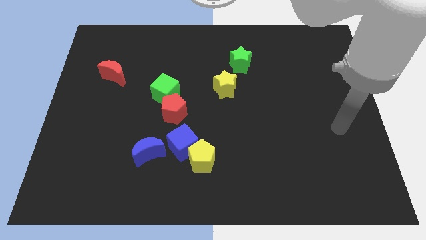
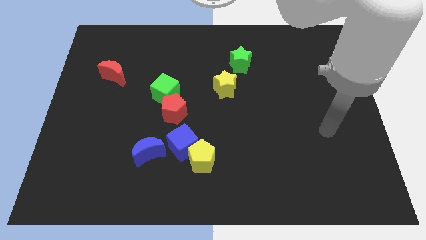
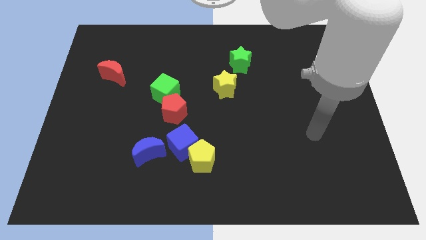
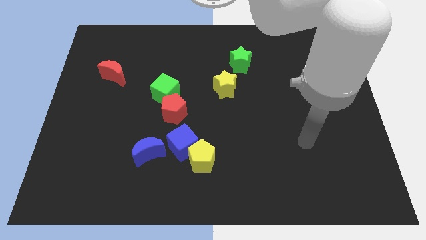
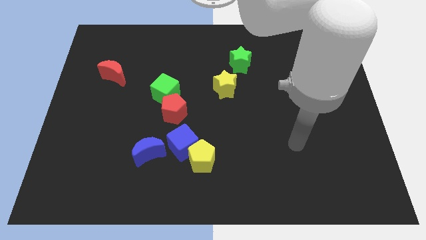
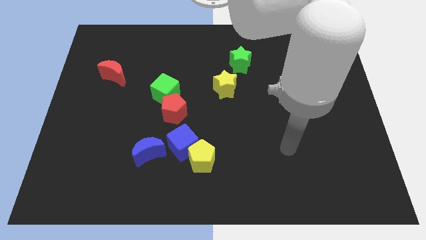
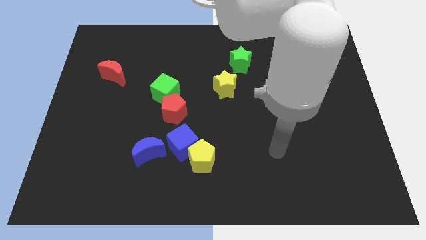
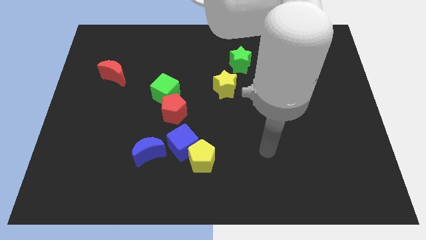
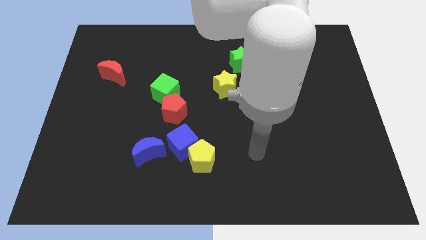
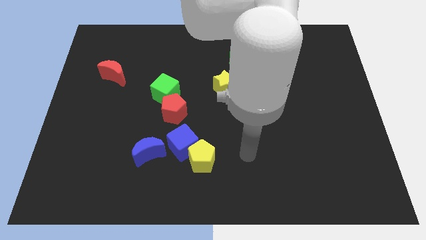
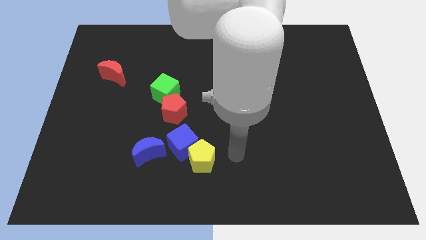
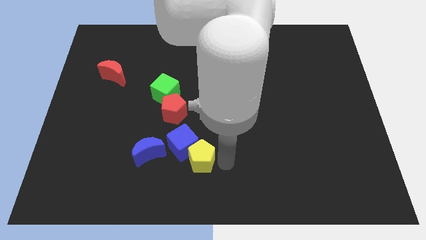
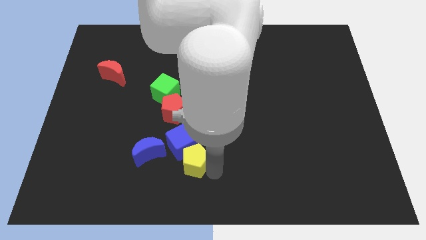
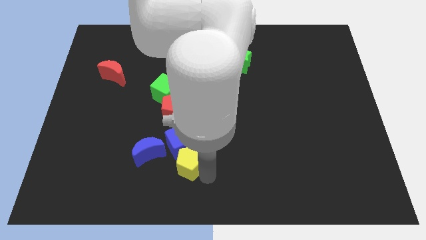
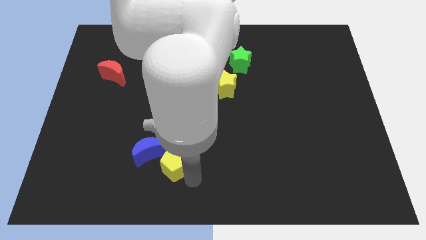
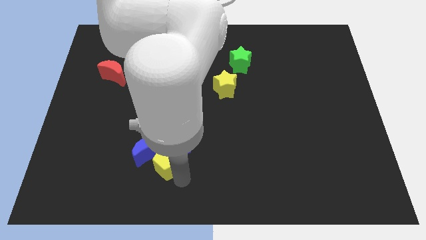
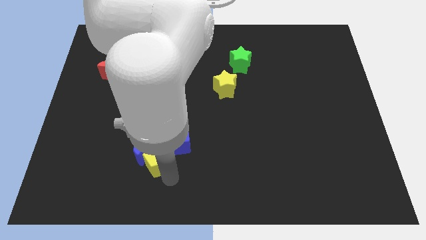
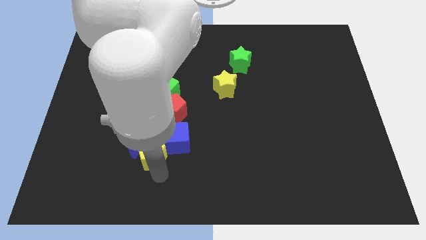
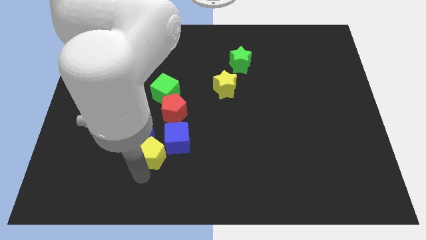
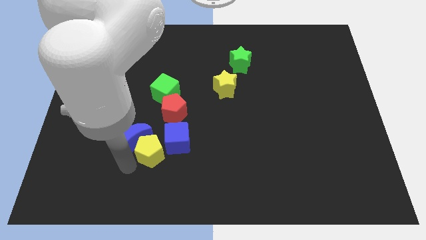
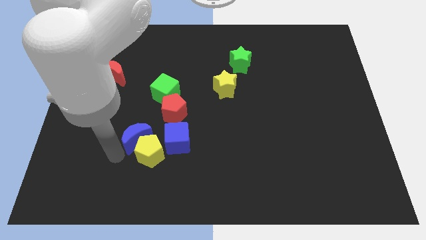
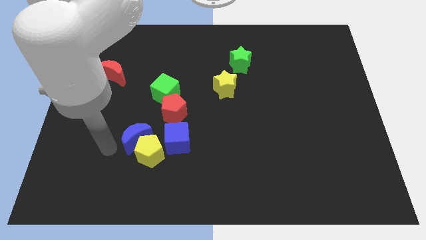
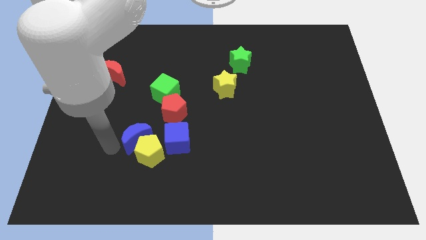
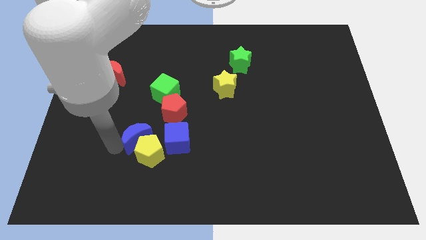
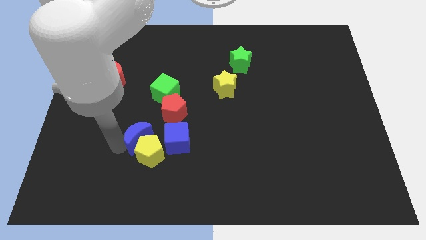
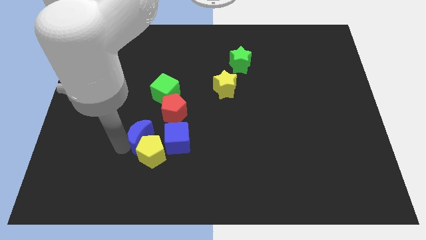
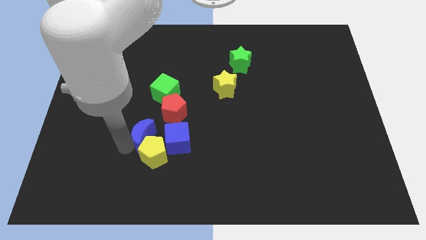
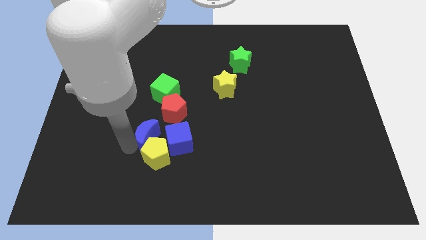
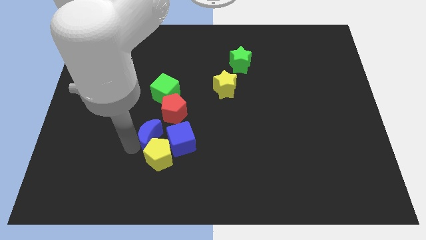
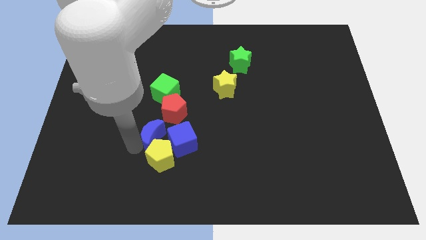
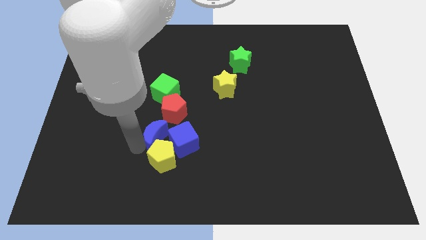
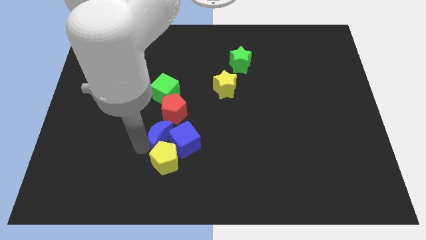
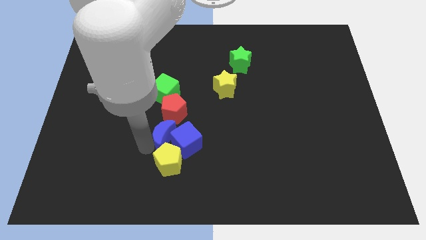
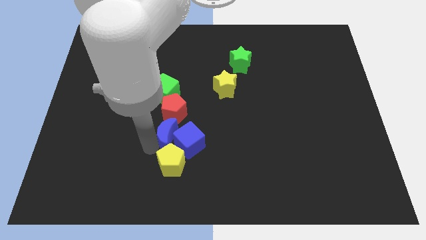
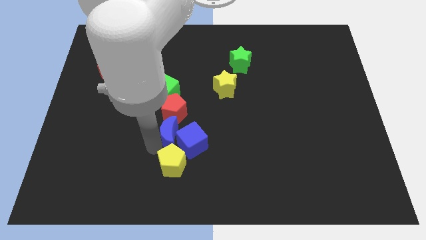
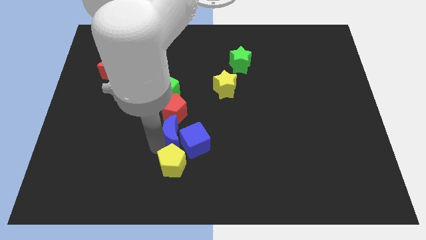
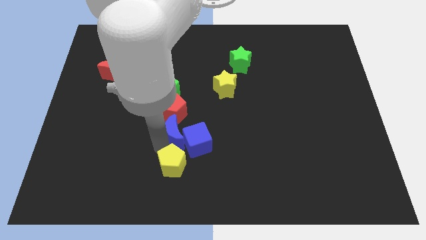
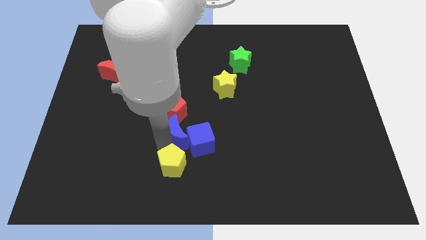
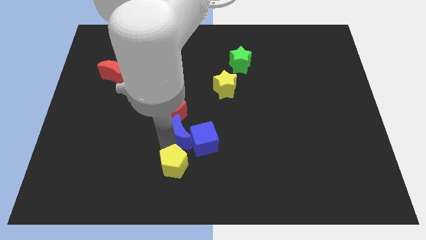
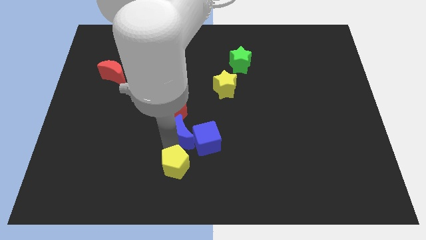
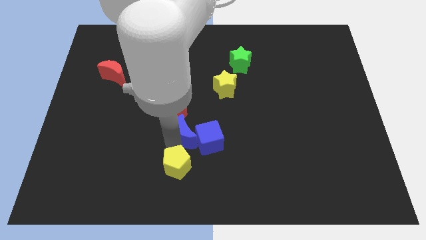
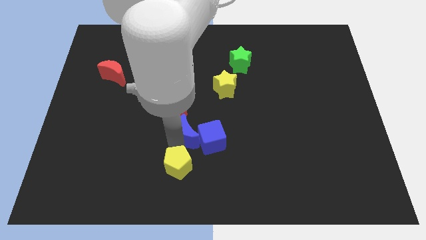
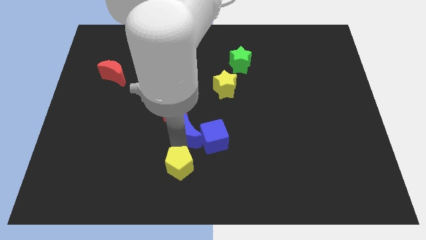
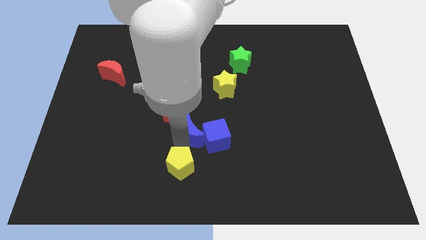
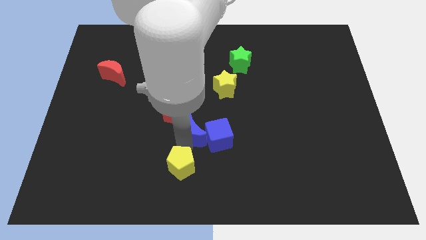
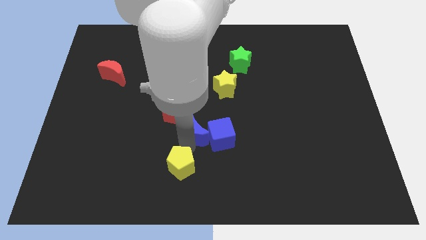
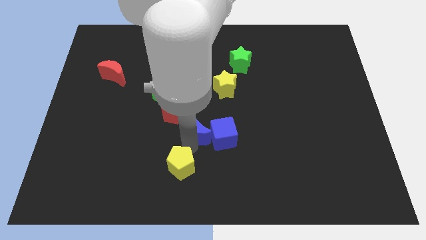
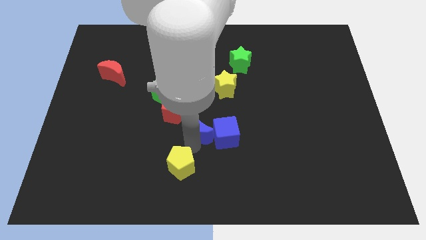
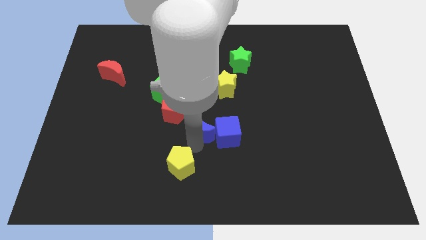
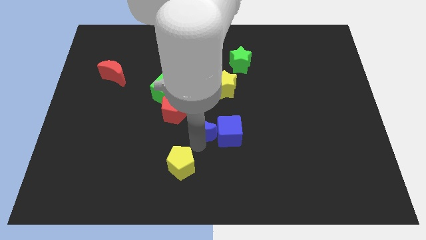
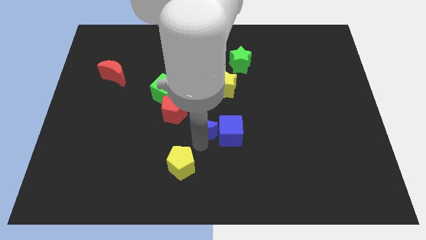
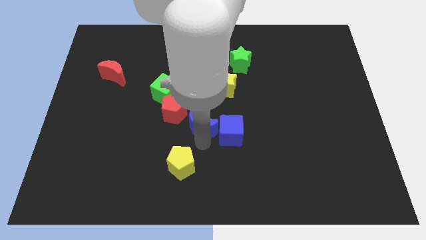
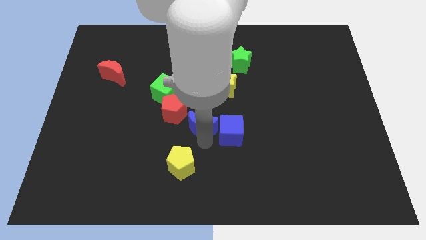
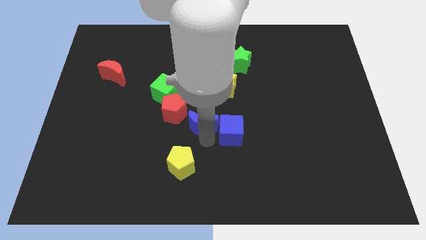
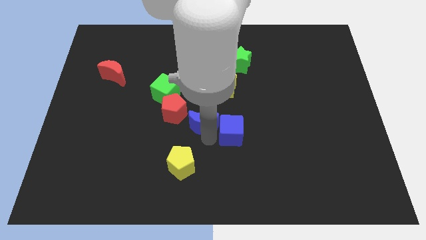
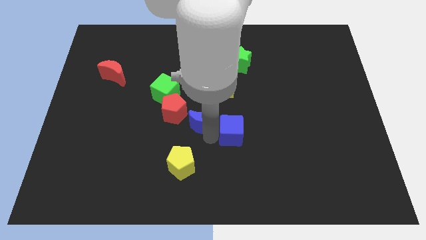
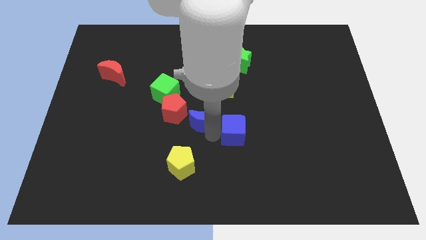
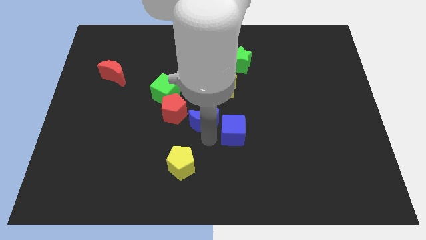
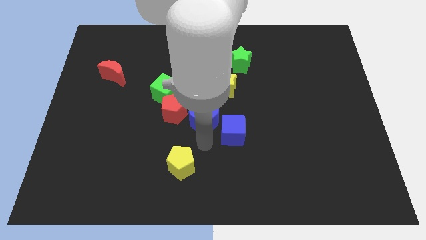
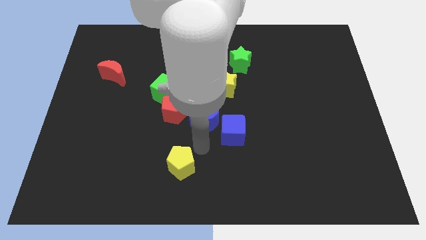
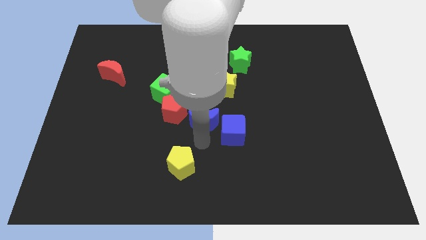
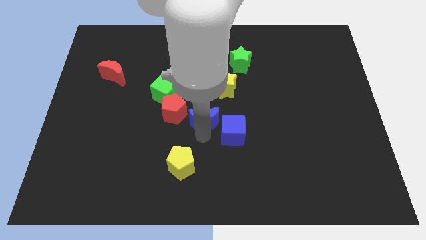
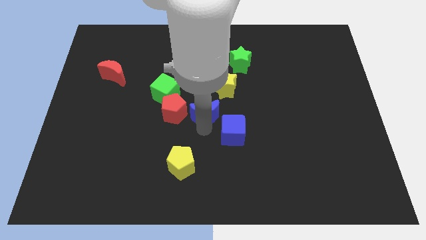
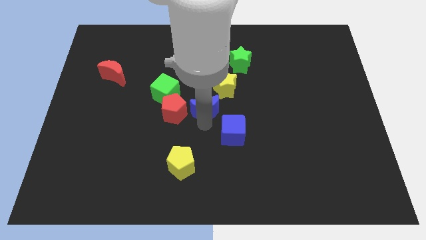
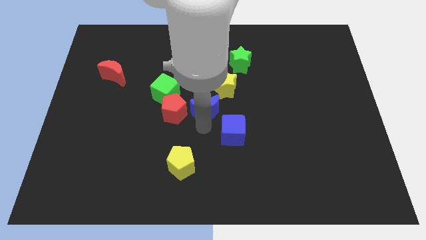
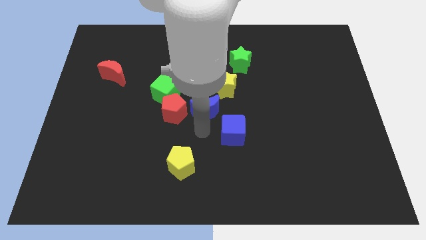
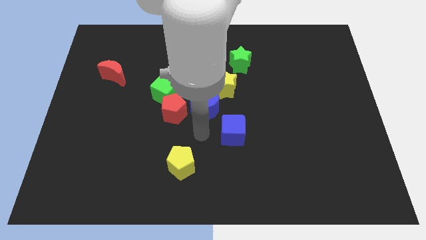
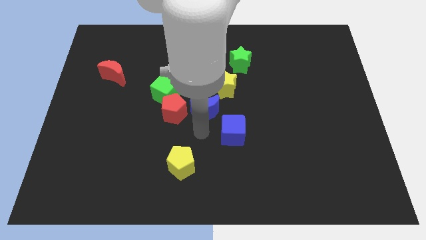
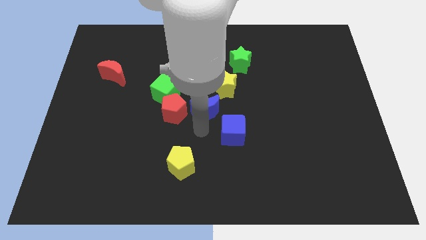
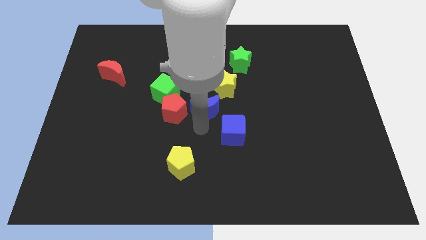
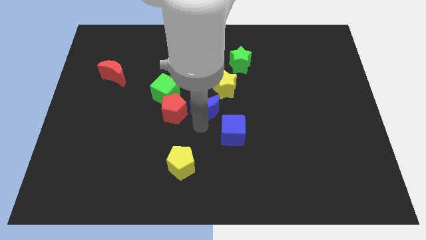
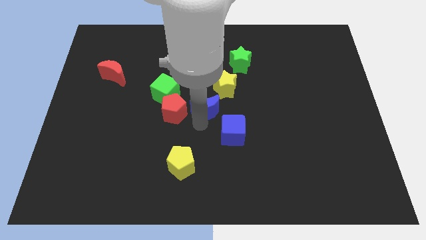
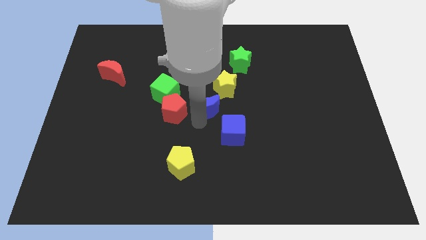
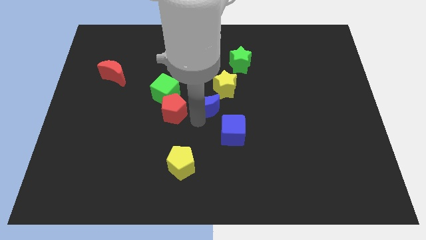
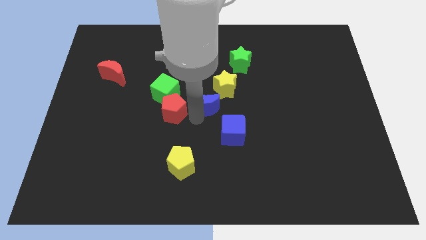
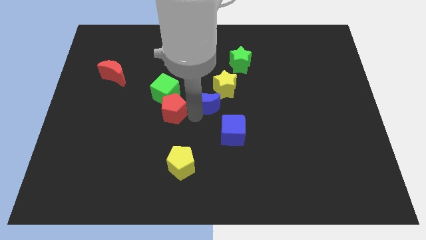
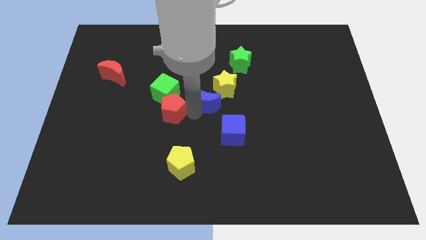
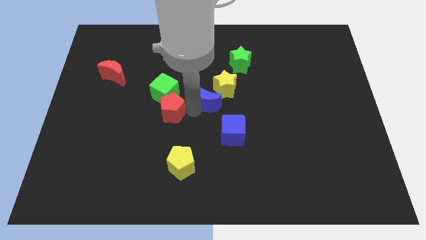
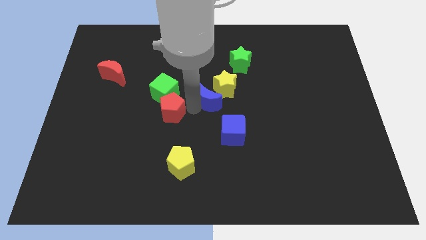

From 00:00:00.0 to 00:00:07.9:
move the blue moon close to the yellow star
